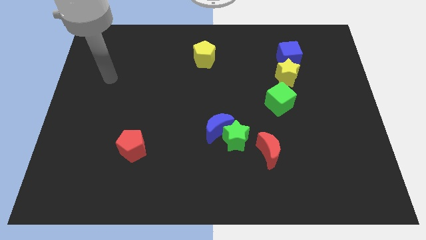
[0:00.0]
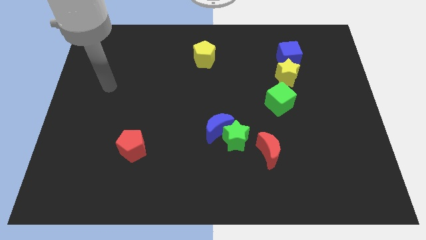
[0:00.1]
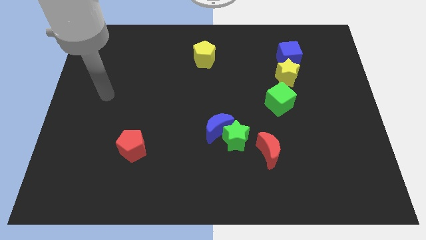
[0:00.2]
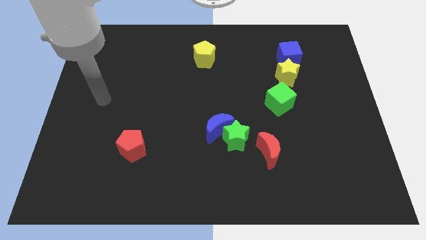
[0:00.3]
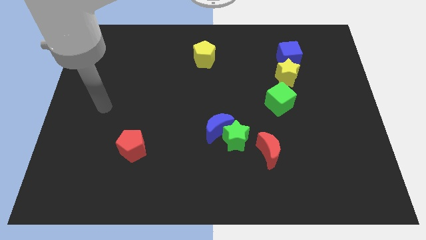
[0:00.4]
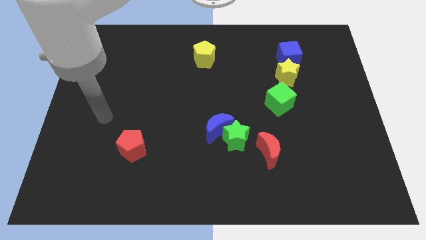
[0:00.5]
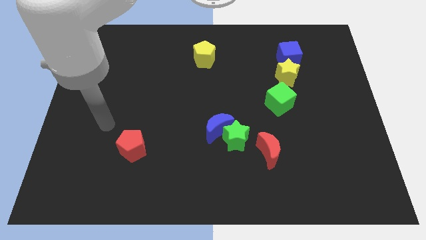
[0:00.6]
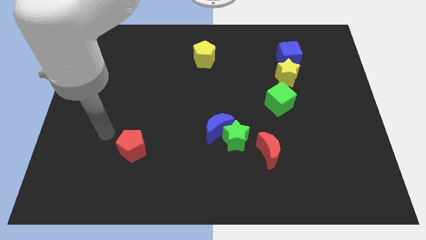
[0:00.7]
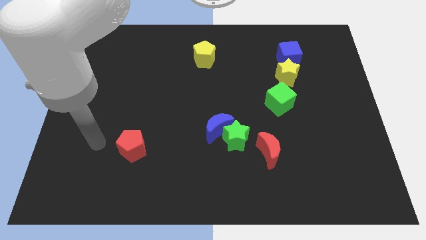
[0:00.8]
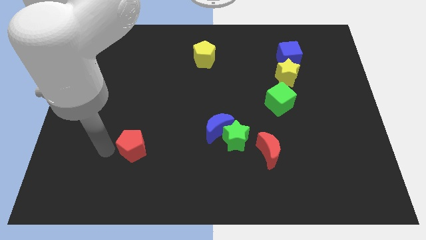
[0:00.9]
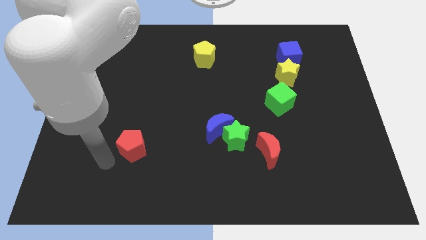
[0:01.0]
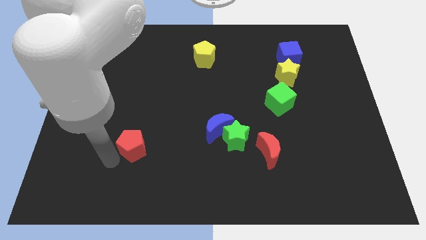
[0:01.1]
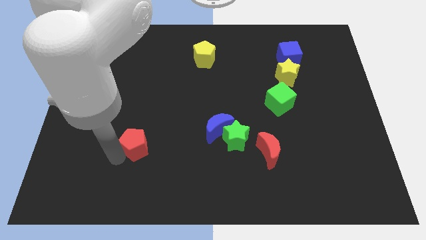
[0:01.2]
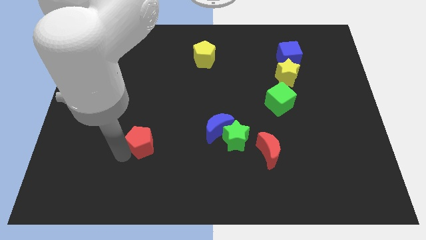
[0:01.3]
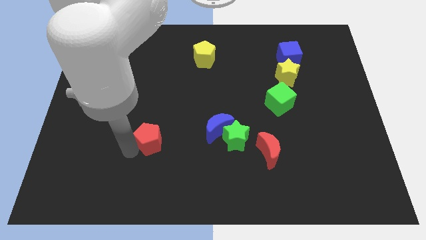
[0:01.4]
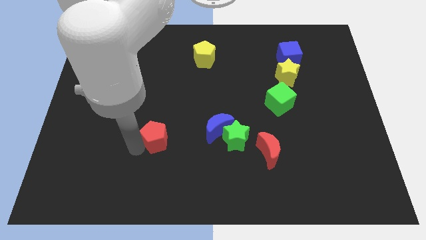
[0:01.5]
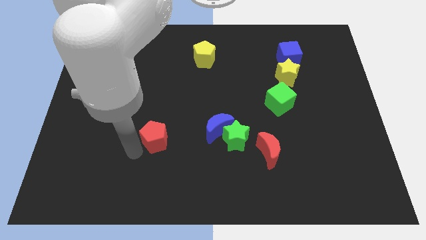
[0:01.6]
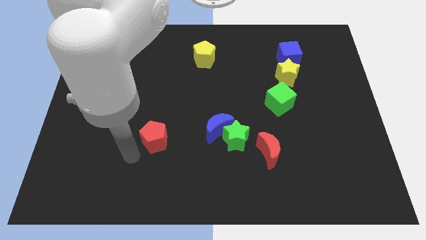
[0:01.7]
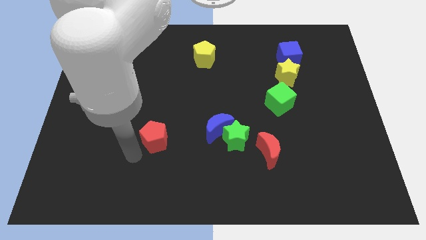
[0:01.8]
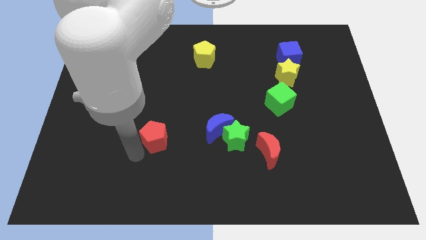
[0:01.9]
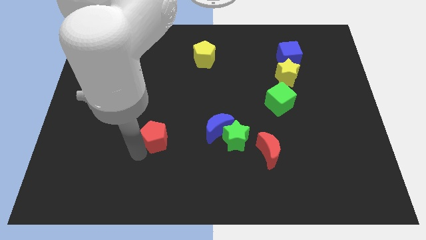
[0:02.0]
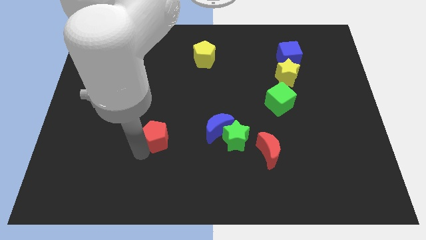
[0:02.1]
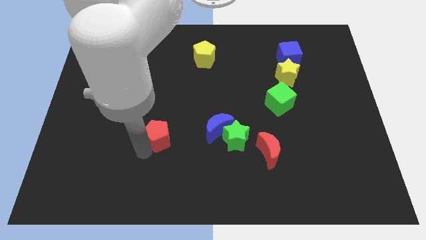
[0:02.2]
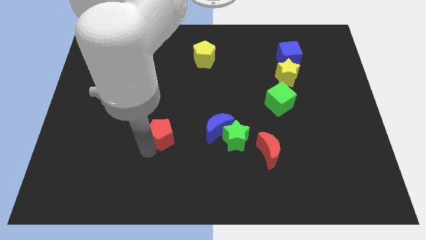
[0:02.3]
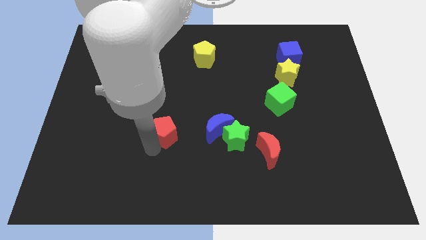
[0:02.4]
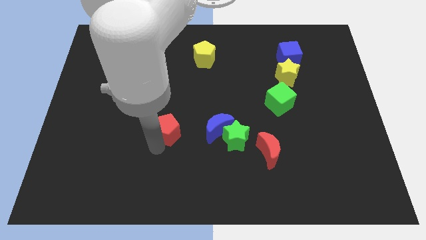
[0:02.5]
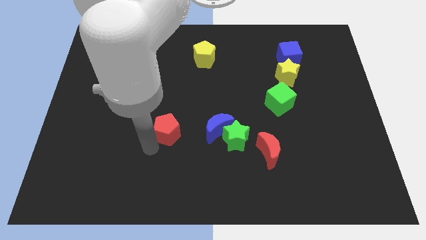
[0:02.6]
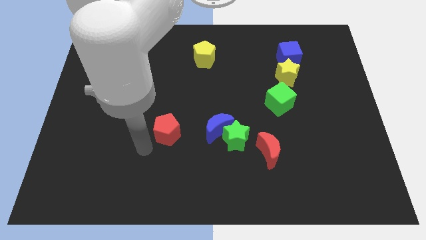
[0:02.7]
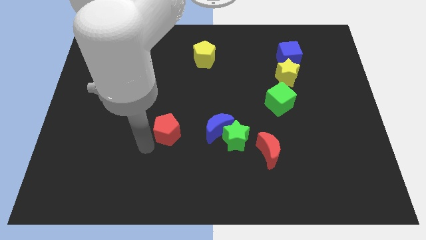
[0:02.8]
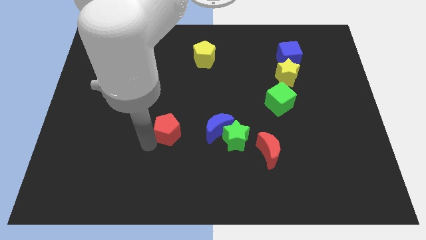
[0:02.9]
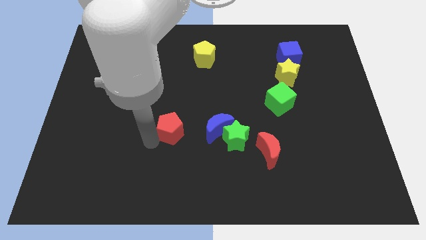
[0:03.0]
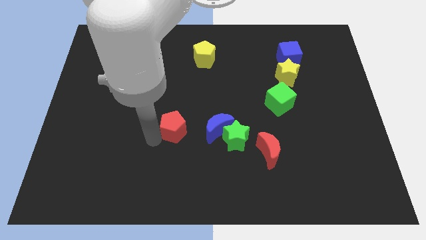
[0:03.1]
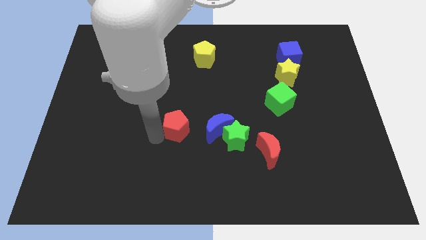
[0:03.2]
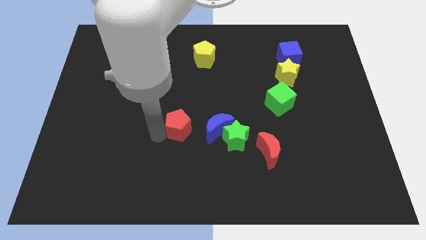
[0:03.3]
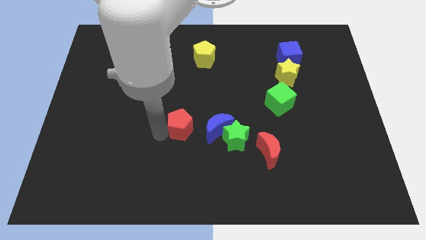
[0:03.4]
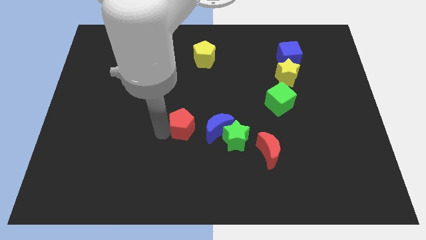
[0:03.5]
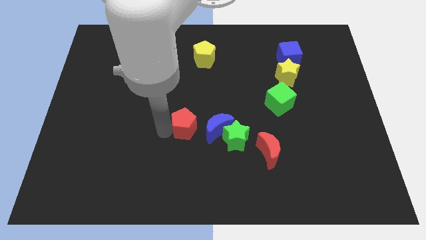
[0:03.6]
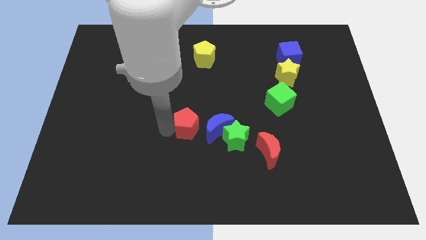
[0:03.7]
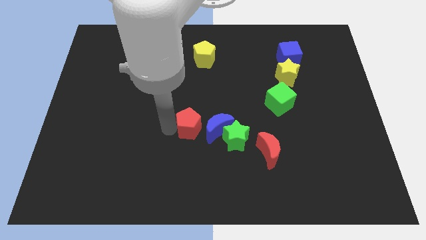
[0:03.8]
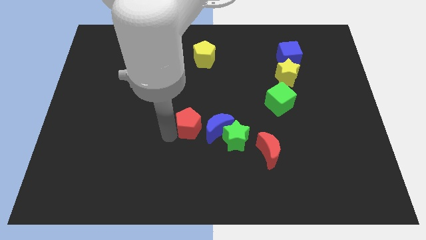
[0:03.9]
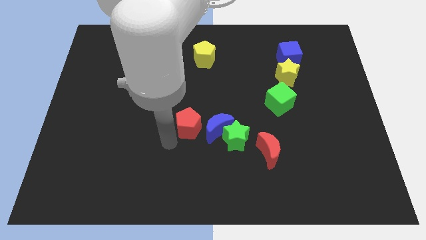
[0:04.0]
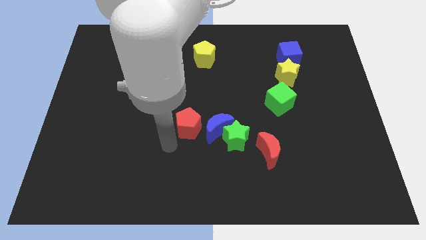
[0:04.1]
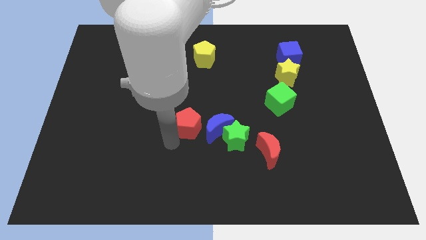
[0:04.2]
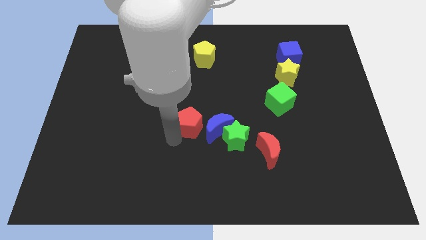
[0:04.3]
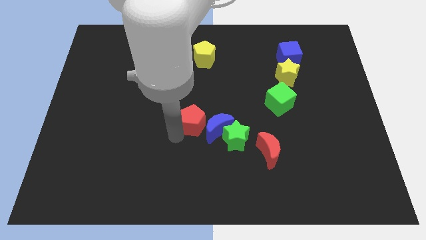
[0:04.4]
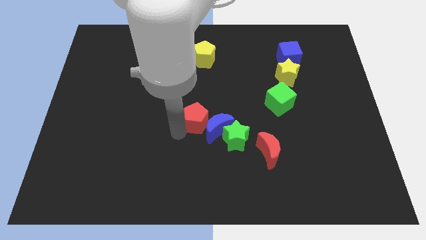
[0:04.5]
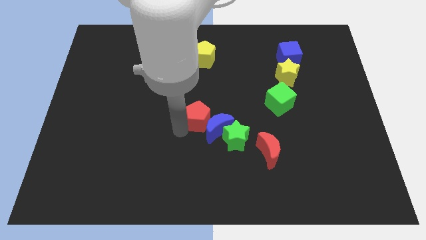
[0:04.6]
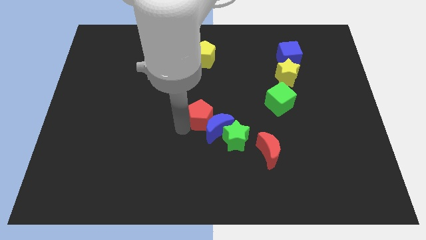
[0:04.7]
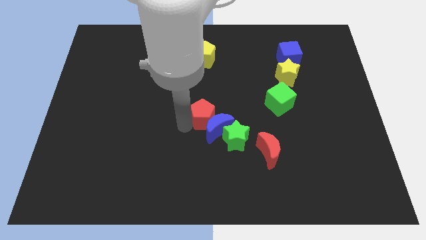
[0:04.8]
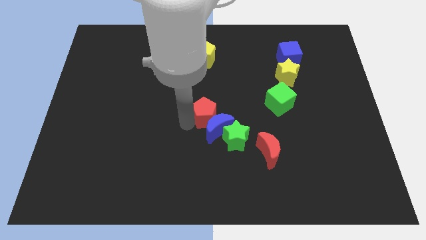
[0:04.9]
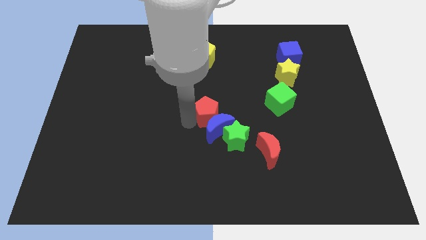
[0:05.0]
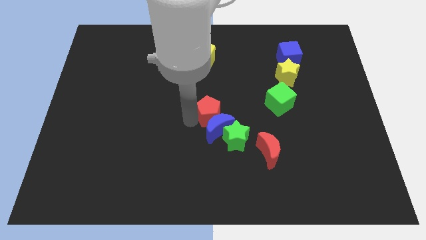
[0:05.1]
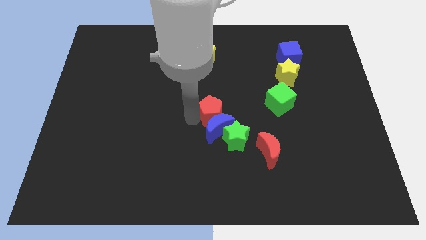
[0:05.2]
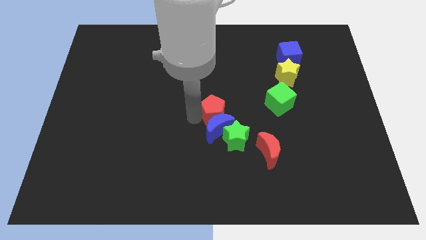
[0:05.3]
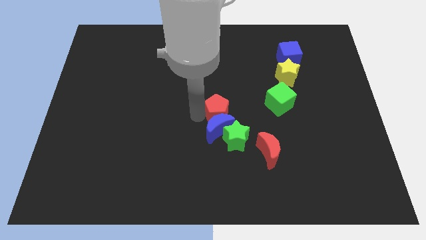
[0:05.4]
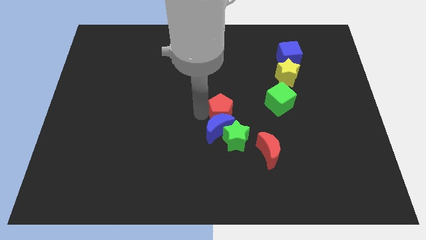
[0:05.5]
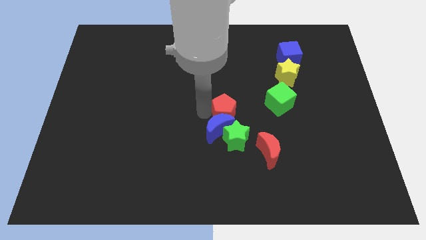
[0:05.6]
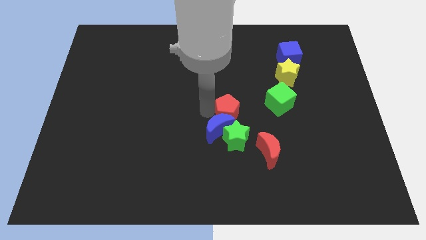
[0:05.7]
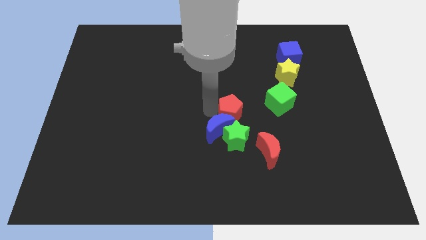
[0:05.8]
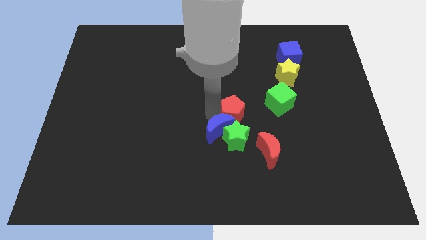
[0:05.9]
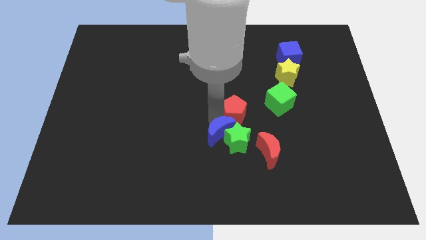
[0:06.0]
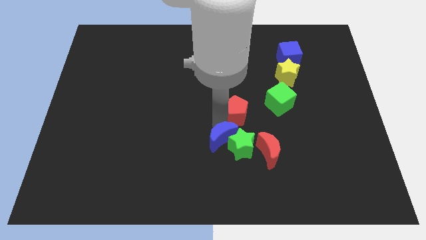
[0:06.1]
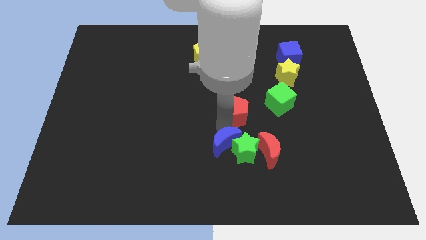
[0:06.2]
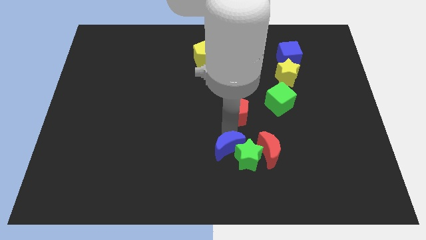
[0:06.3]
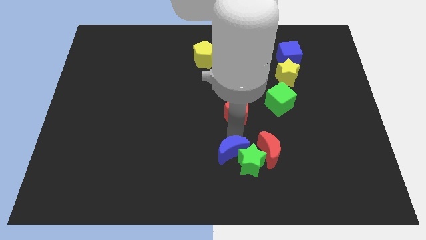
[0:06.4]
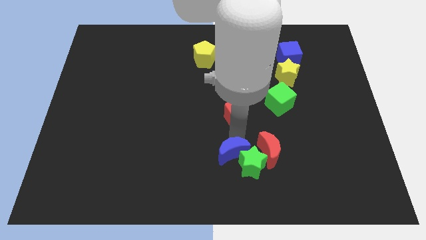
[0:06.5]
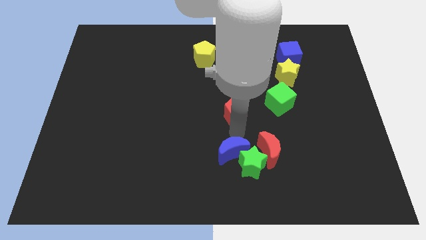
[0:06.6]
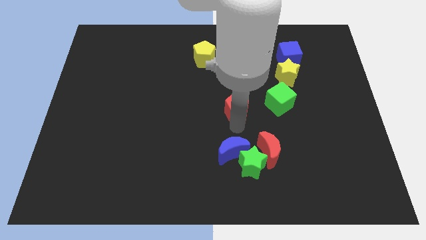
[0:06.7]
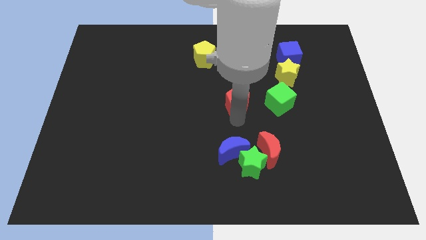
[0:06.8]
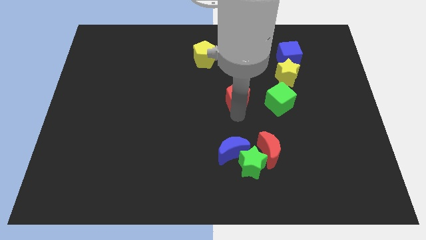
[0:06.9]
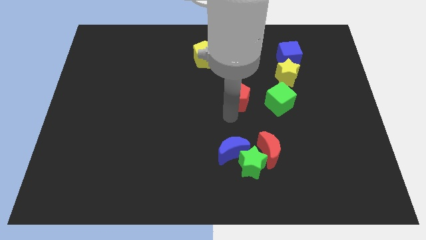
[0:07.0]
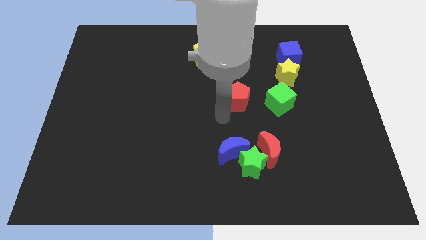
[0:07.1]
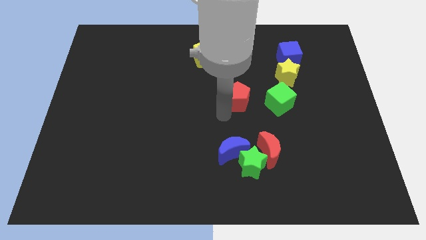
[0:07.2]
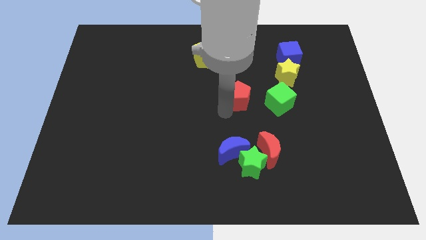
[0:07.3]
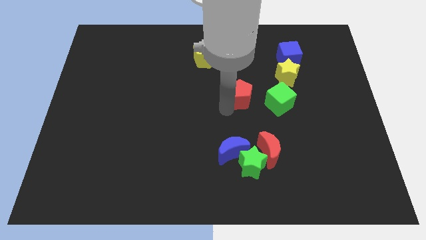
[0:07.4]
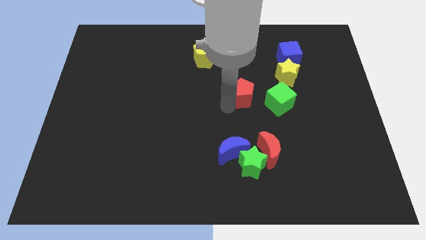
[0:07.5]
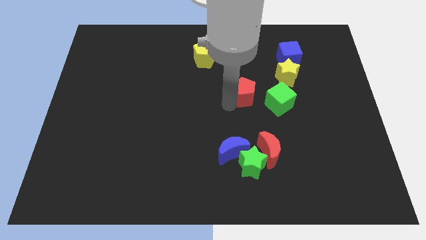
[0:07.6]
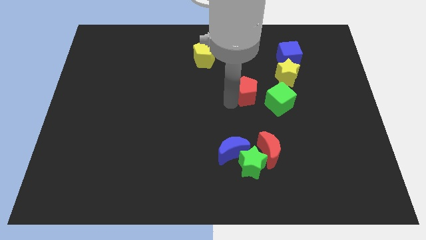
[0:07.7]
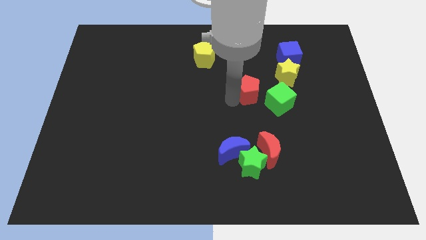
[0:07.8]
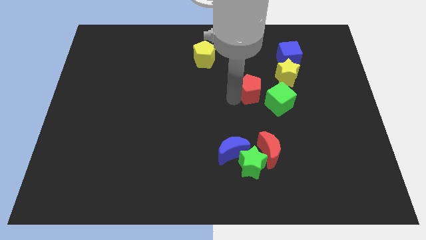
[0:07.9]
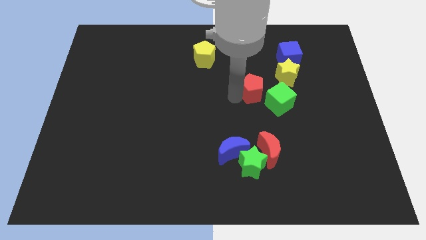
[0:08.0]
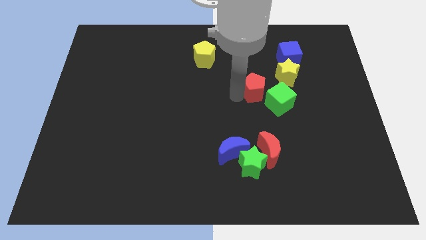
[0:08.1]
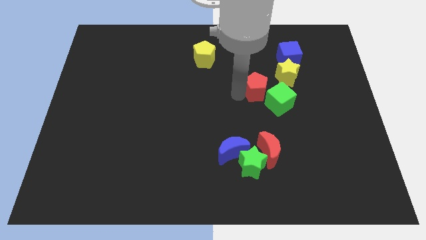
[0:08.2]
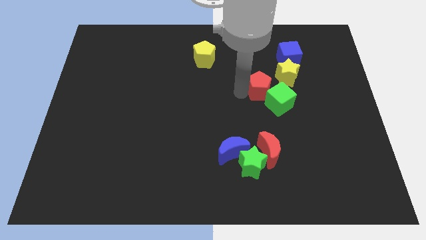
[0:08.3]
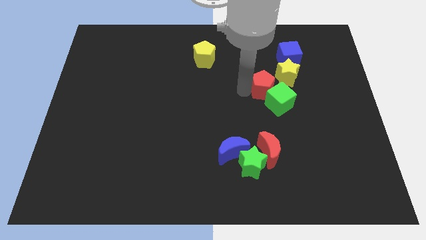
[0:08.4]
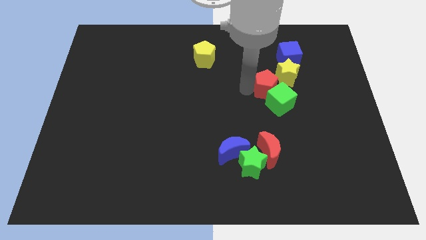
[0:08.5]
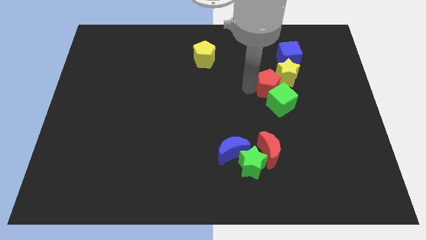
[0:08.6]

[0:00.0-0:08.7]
push the red pentagon close to the yellow star
